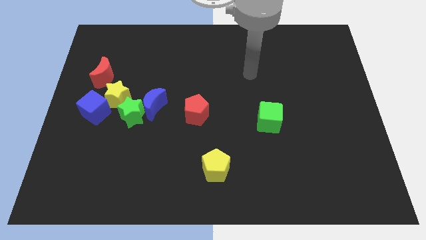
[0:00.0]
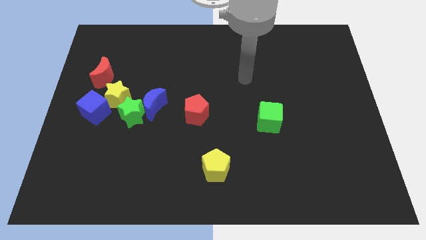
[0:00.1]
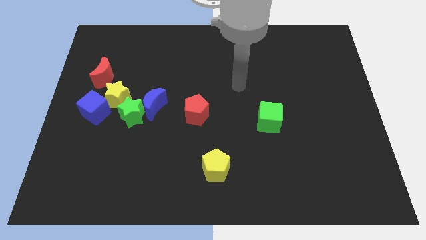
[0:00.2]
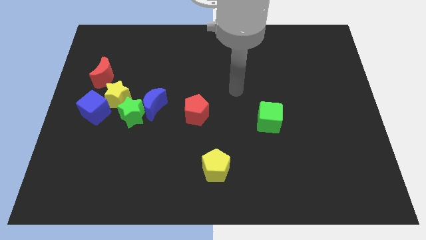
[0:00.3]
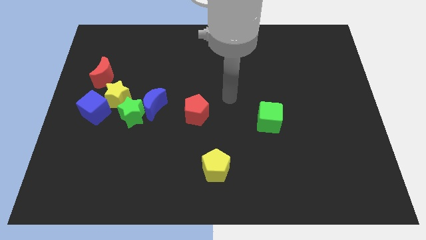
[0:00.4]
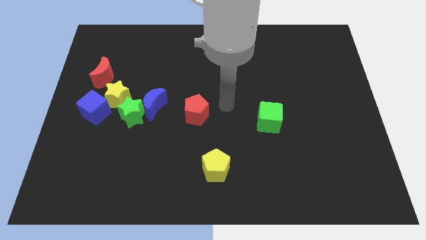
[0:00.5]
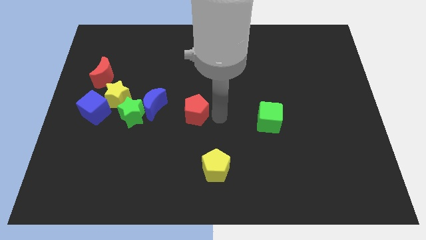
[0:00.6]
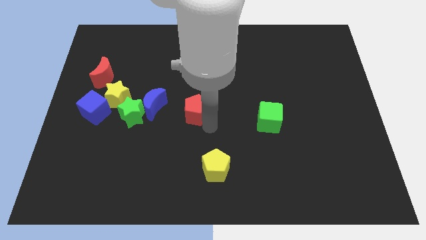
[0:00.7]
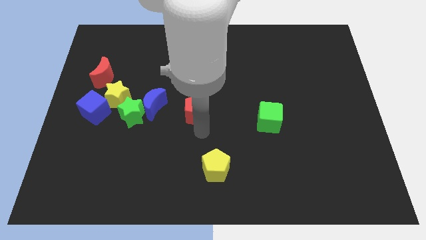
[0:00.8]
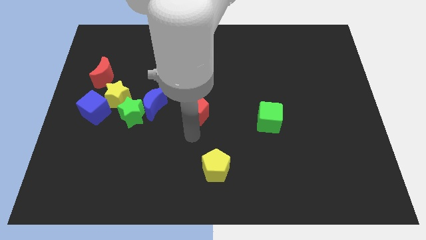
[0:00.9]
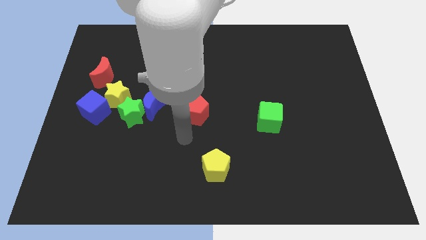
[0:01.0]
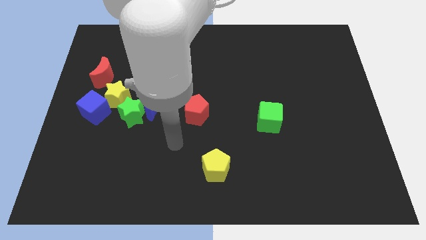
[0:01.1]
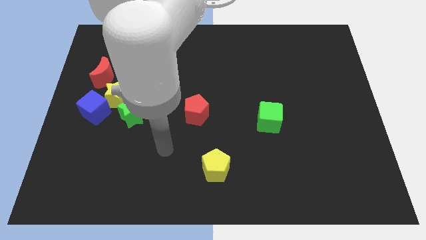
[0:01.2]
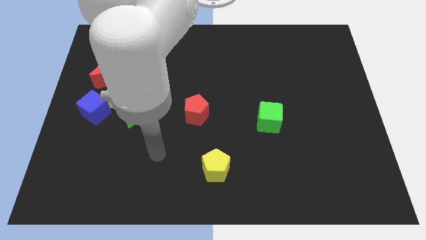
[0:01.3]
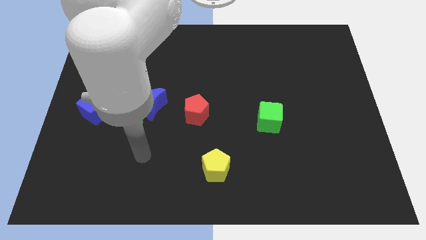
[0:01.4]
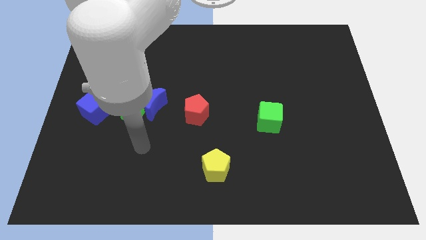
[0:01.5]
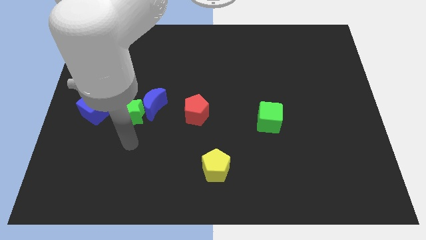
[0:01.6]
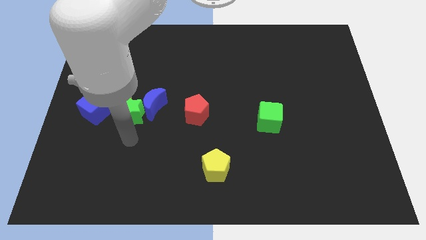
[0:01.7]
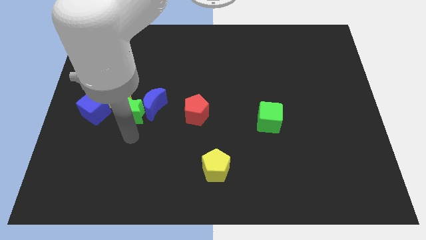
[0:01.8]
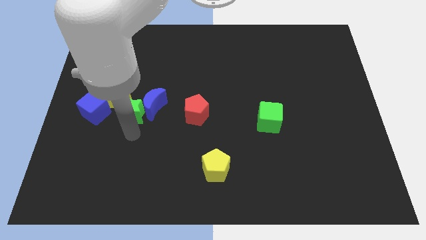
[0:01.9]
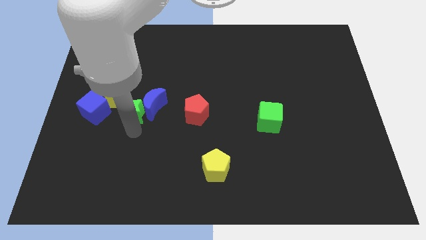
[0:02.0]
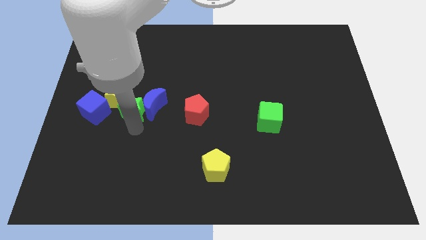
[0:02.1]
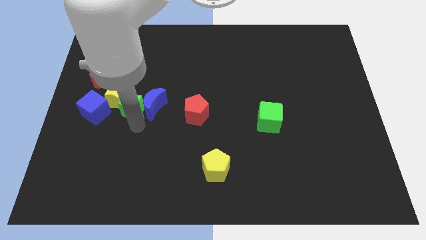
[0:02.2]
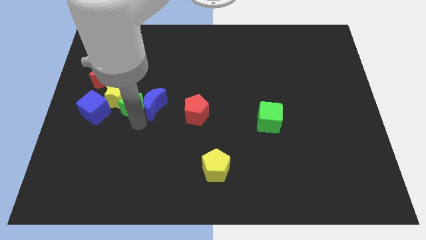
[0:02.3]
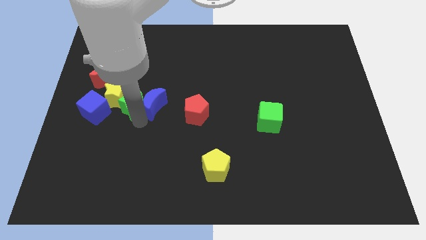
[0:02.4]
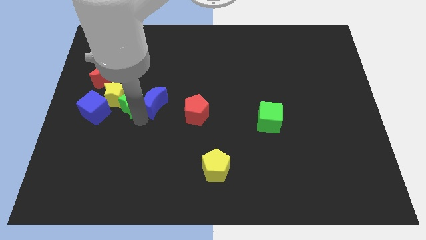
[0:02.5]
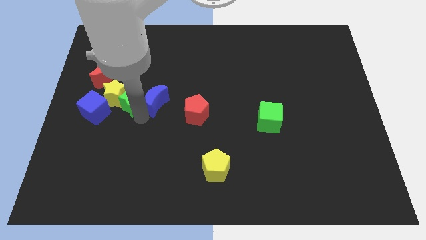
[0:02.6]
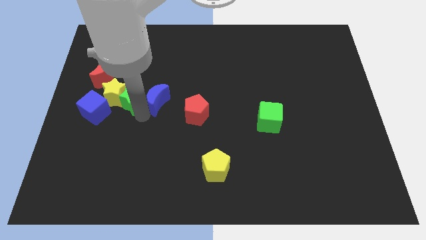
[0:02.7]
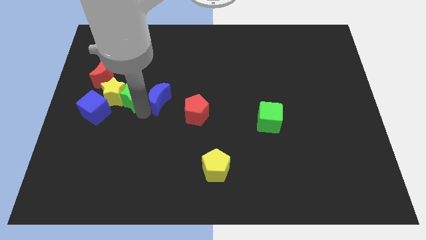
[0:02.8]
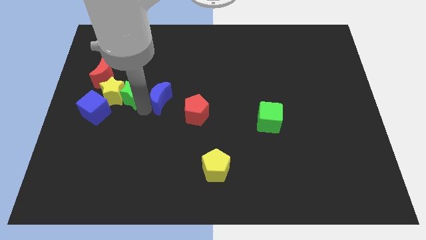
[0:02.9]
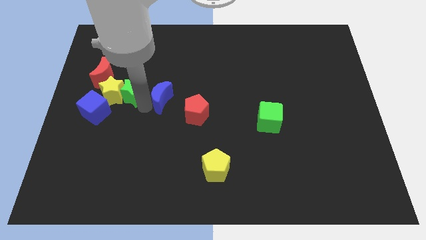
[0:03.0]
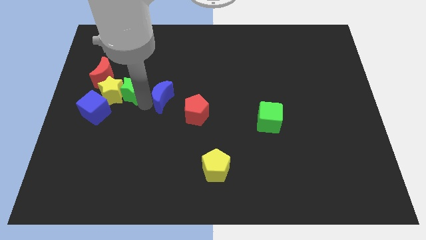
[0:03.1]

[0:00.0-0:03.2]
slightly move the green star up

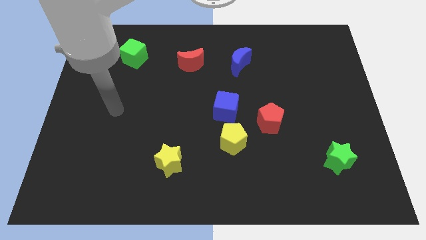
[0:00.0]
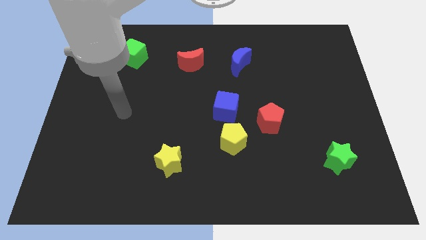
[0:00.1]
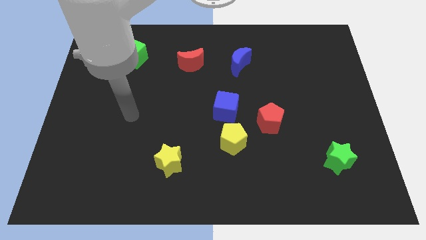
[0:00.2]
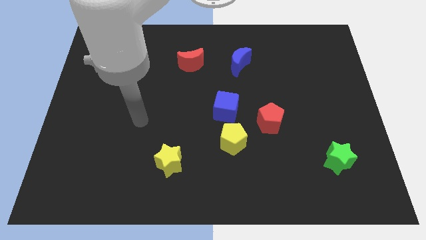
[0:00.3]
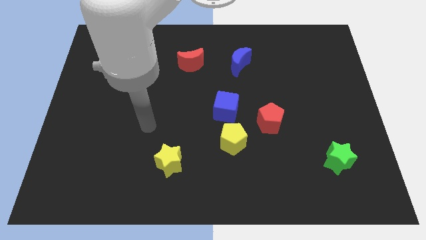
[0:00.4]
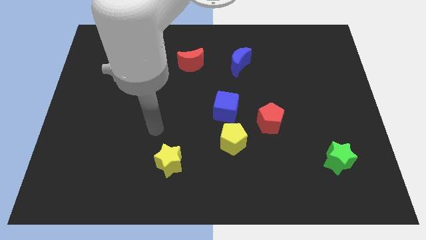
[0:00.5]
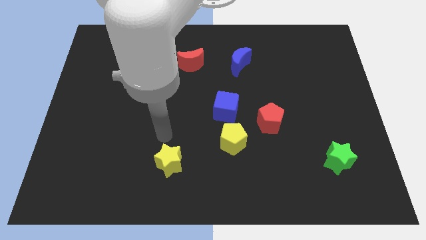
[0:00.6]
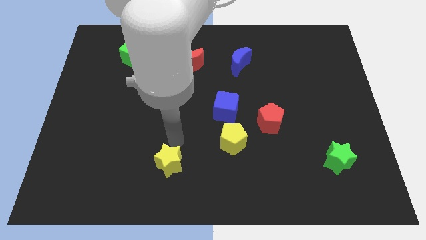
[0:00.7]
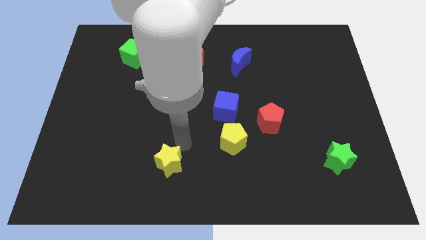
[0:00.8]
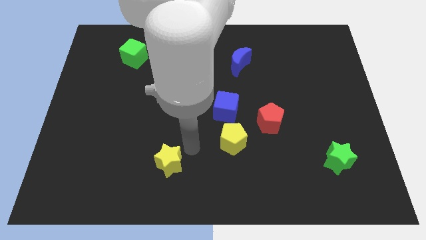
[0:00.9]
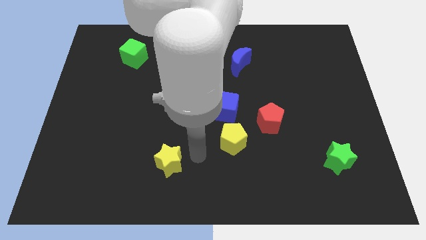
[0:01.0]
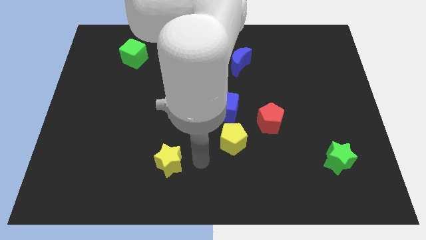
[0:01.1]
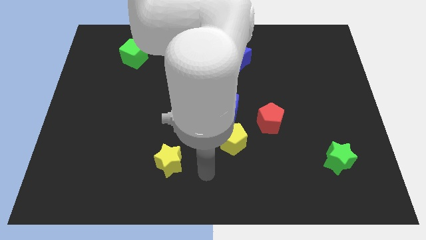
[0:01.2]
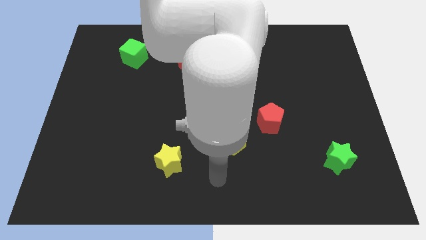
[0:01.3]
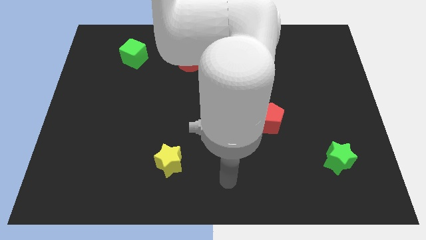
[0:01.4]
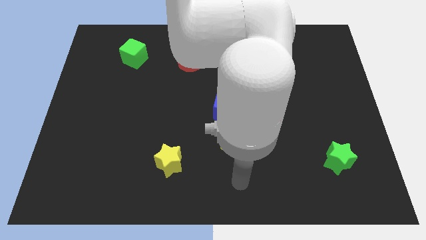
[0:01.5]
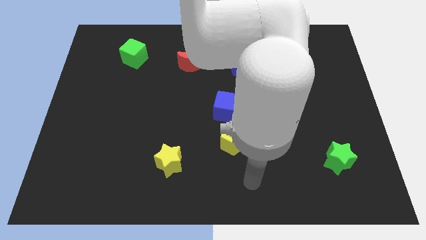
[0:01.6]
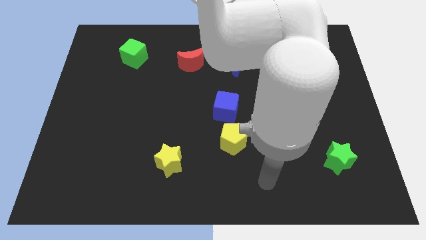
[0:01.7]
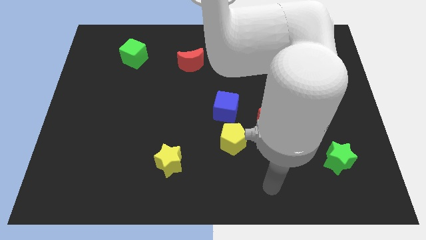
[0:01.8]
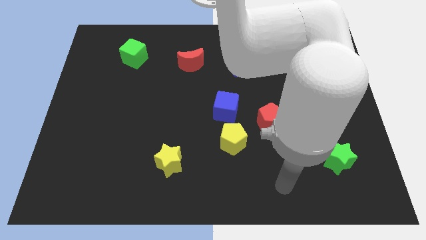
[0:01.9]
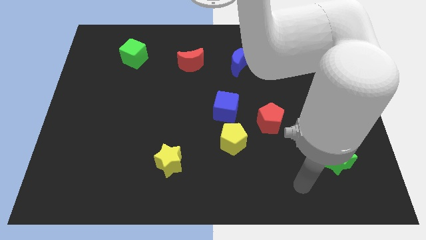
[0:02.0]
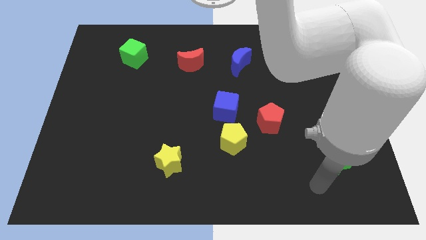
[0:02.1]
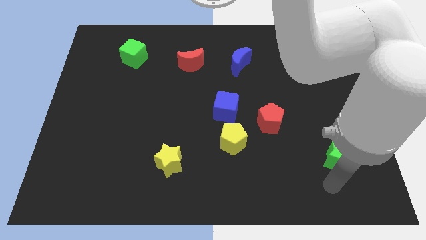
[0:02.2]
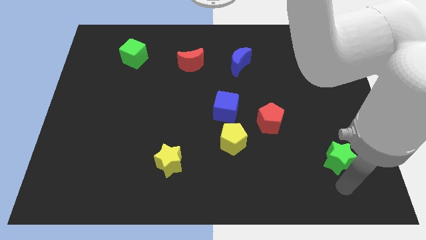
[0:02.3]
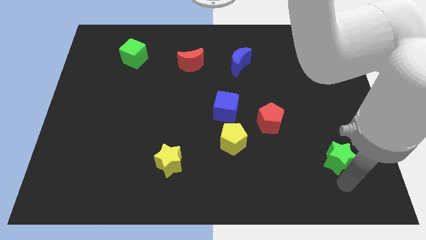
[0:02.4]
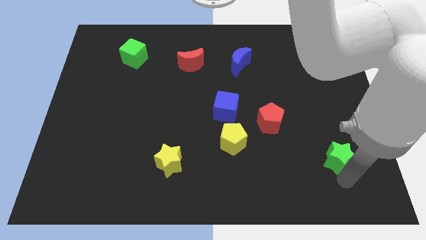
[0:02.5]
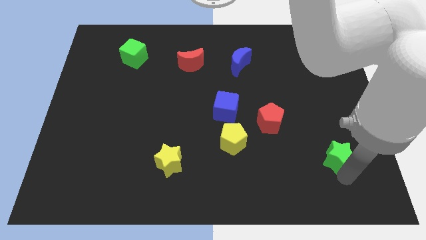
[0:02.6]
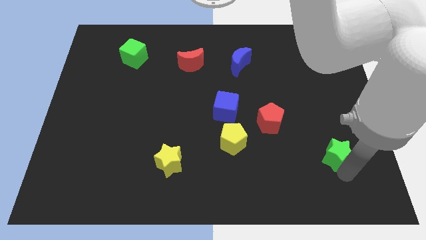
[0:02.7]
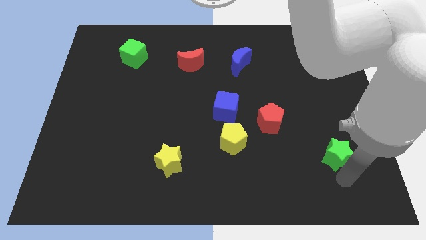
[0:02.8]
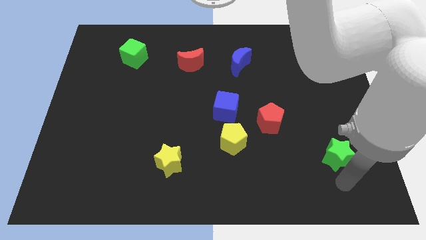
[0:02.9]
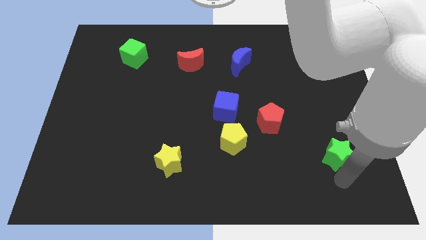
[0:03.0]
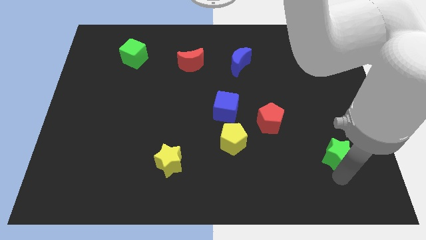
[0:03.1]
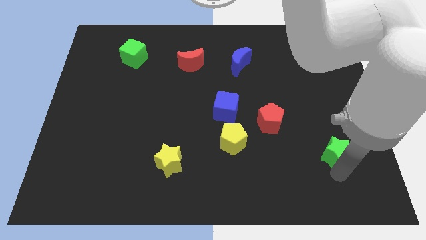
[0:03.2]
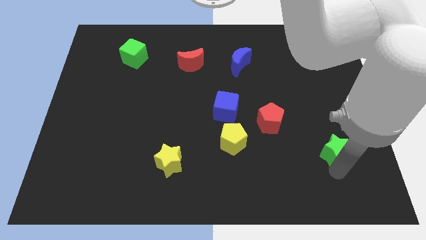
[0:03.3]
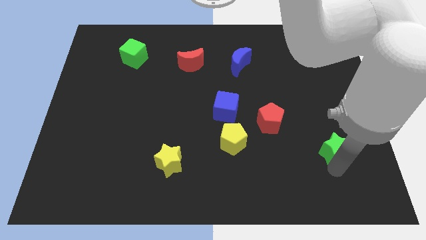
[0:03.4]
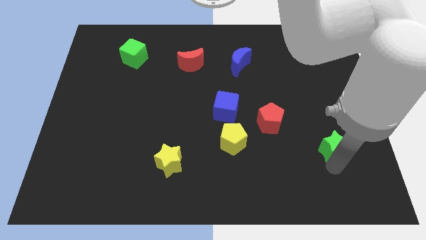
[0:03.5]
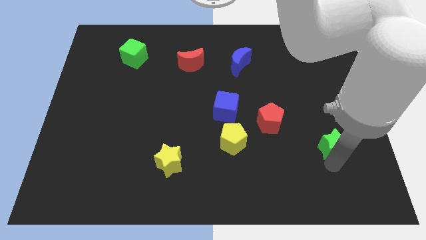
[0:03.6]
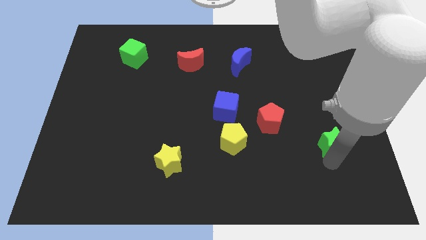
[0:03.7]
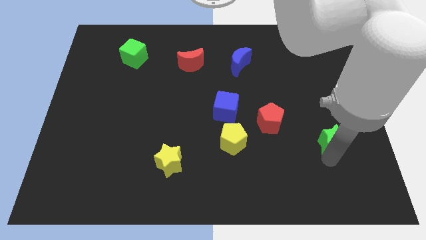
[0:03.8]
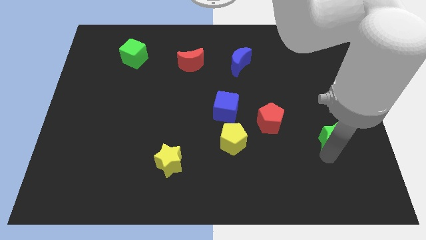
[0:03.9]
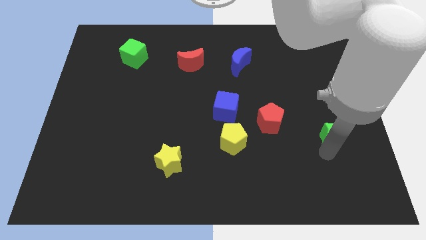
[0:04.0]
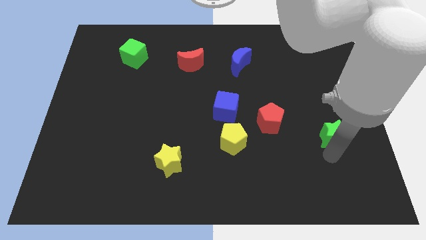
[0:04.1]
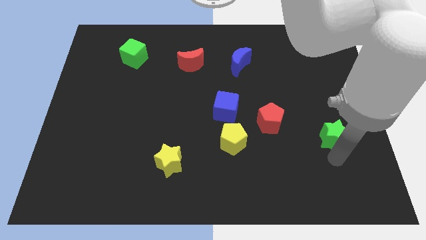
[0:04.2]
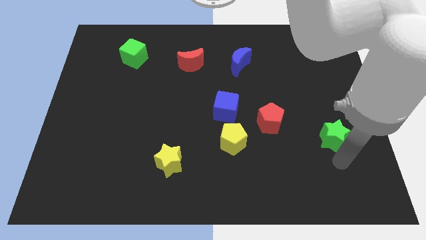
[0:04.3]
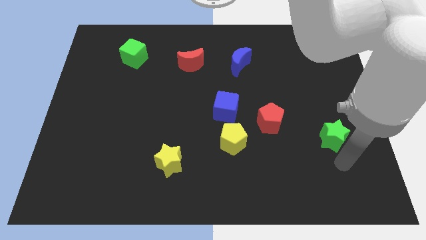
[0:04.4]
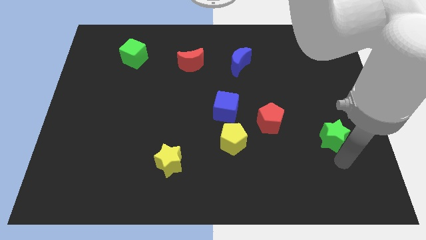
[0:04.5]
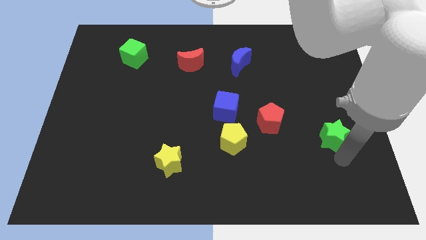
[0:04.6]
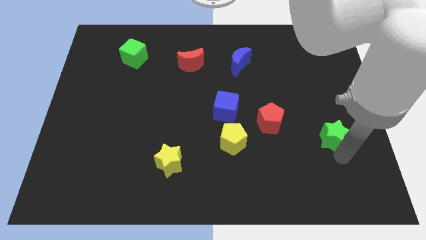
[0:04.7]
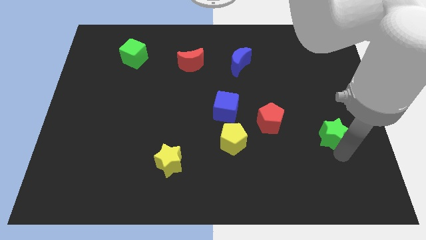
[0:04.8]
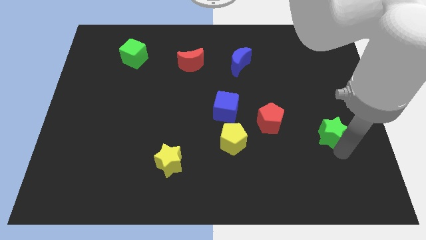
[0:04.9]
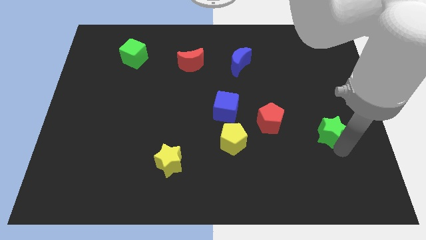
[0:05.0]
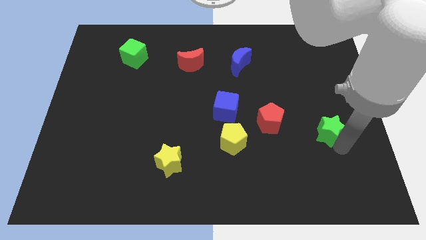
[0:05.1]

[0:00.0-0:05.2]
slightly push the green star up
